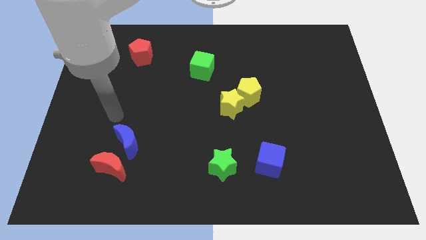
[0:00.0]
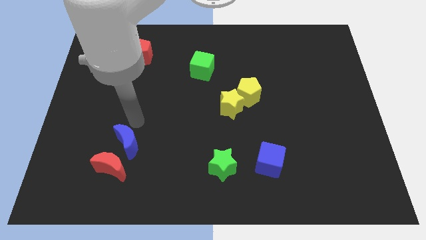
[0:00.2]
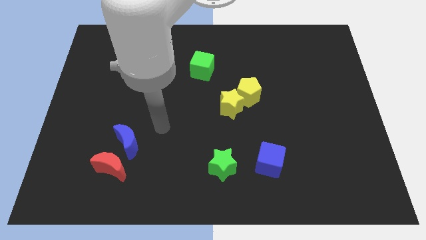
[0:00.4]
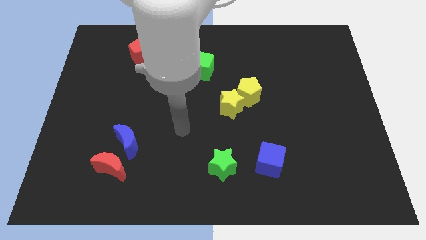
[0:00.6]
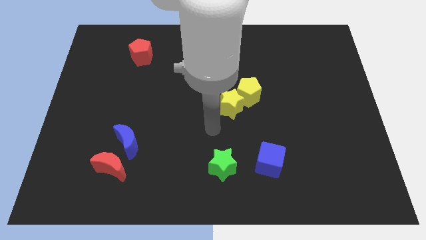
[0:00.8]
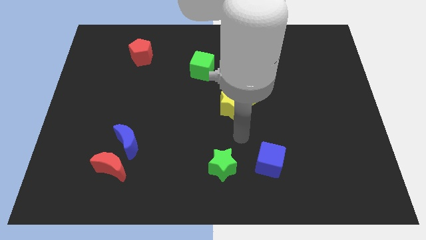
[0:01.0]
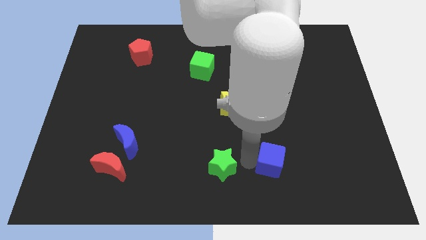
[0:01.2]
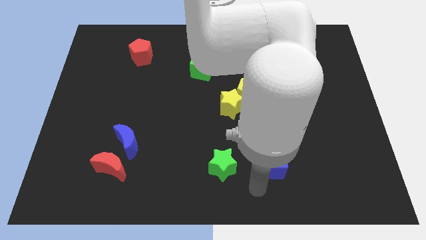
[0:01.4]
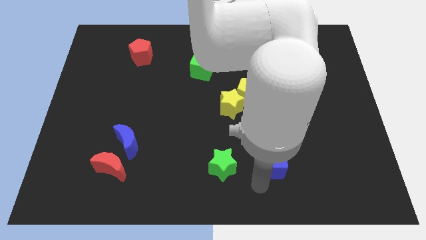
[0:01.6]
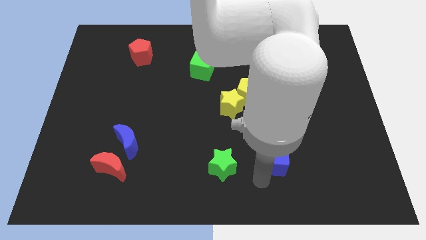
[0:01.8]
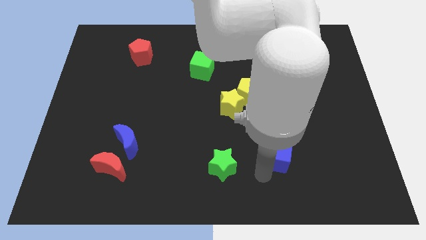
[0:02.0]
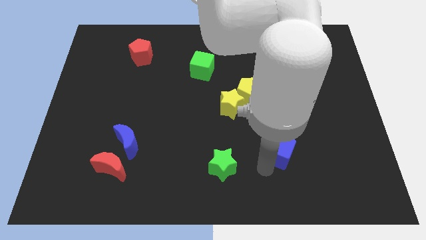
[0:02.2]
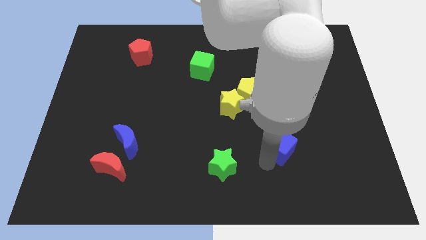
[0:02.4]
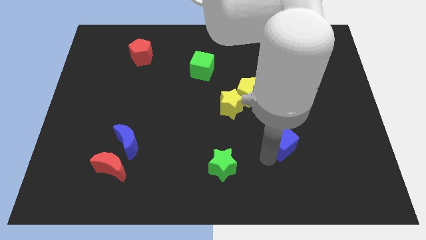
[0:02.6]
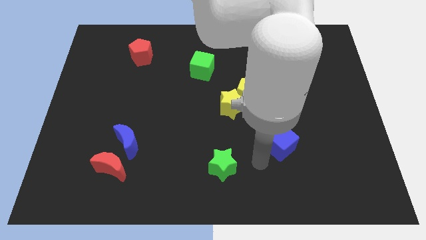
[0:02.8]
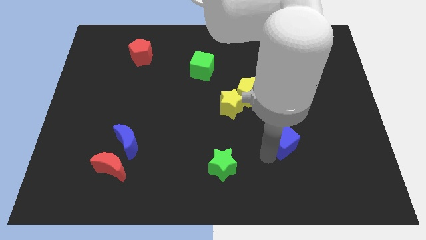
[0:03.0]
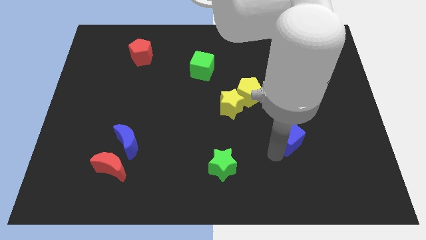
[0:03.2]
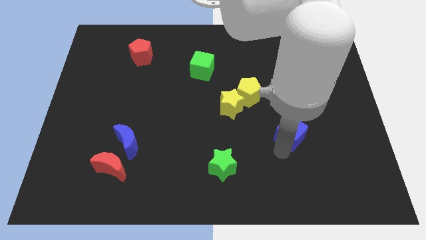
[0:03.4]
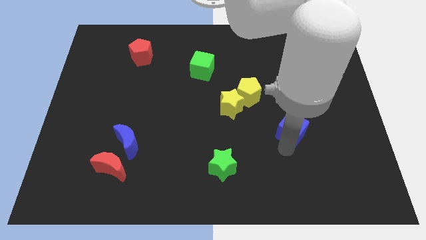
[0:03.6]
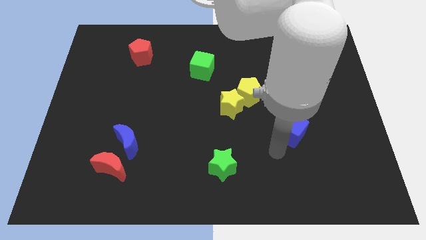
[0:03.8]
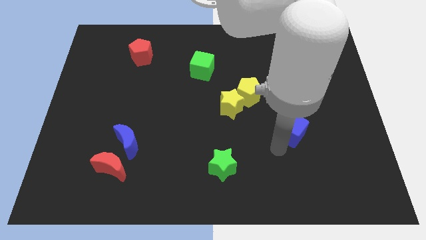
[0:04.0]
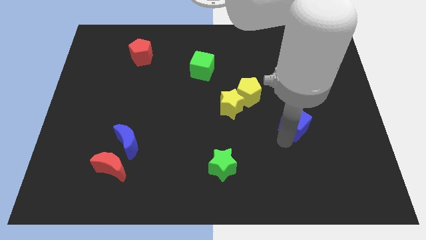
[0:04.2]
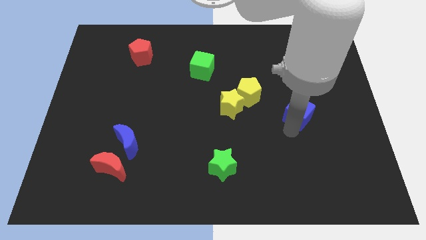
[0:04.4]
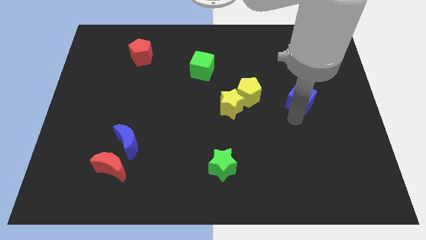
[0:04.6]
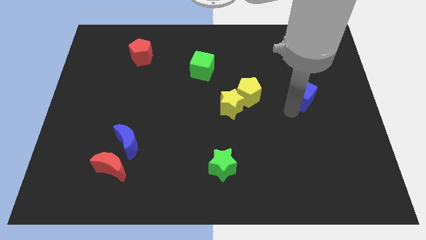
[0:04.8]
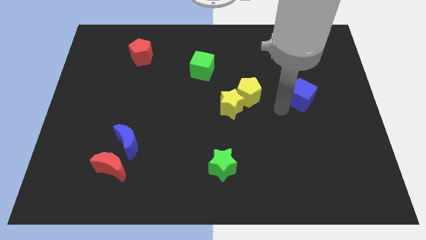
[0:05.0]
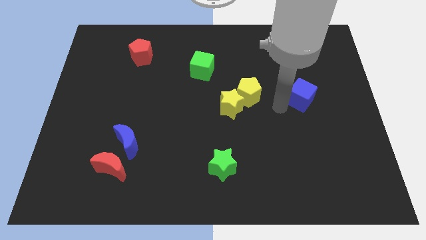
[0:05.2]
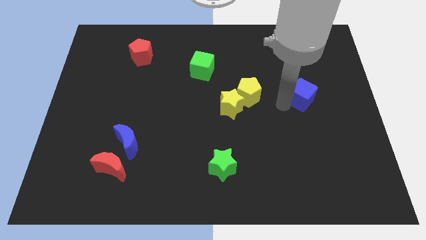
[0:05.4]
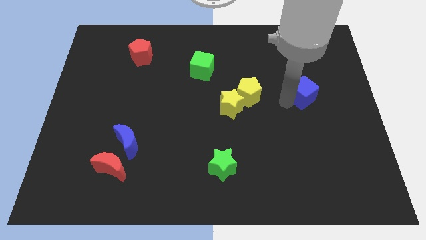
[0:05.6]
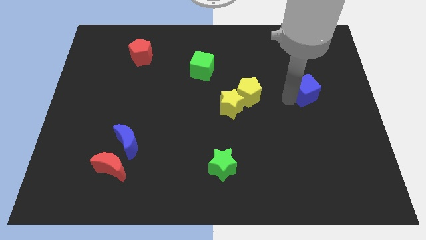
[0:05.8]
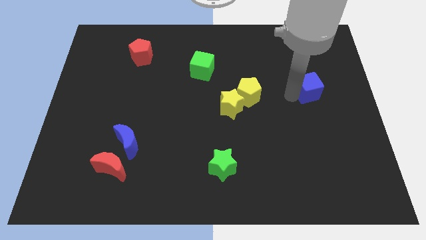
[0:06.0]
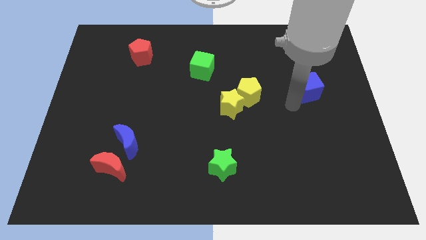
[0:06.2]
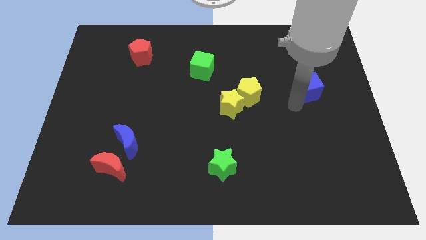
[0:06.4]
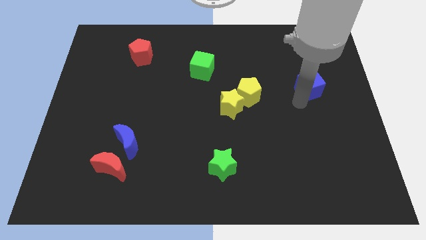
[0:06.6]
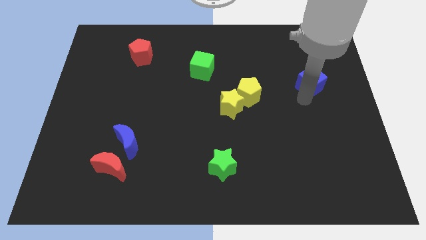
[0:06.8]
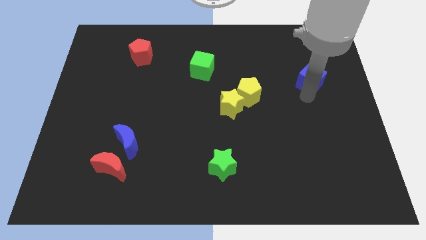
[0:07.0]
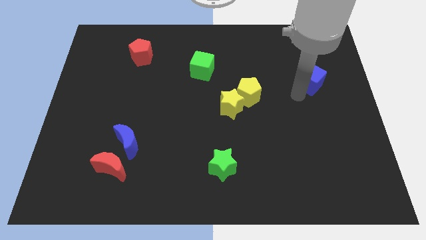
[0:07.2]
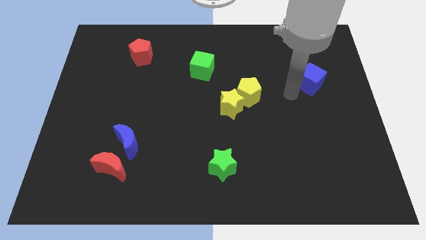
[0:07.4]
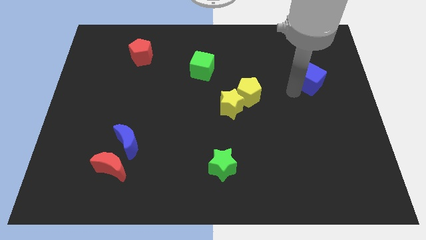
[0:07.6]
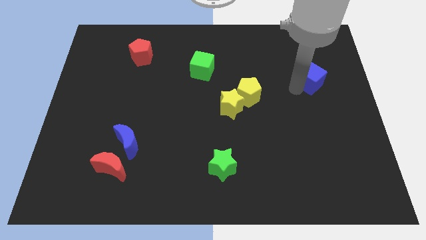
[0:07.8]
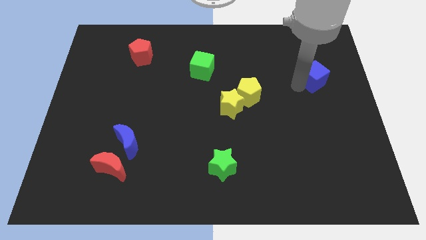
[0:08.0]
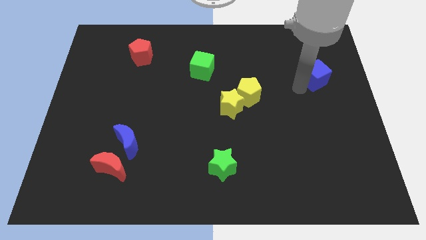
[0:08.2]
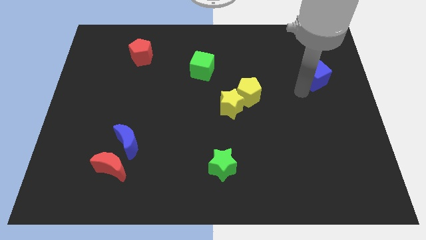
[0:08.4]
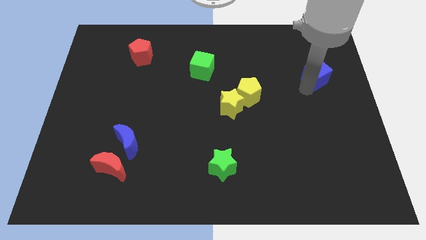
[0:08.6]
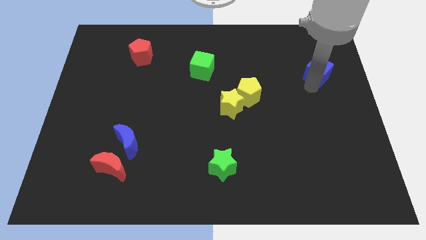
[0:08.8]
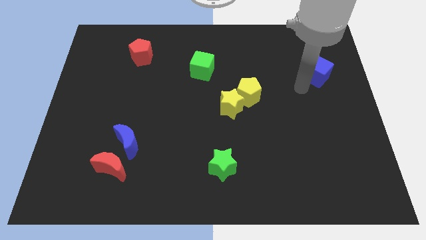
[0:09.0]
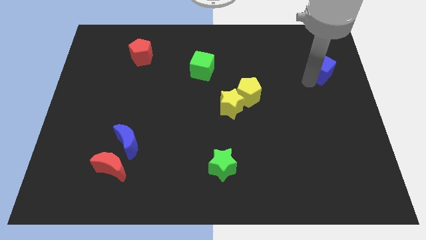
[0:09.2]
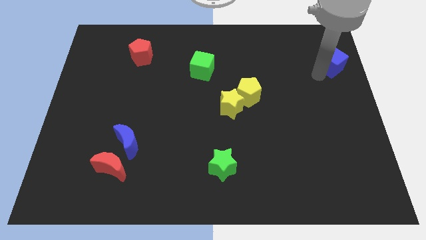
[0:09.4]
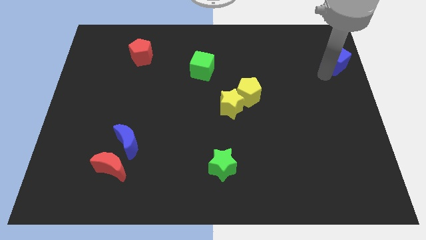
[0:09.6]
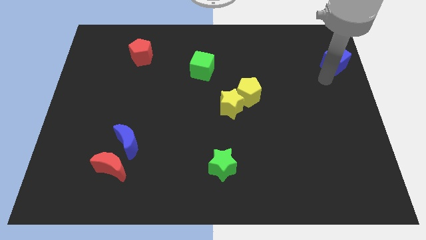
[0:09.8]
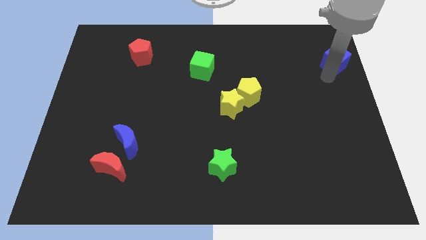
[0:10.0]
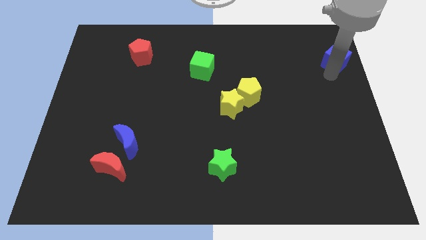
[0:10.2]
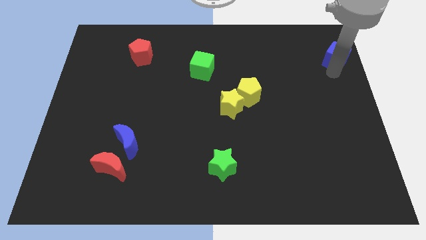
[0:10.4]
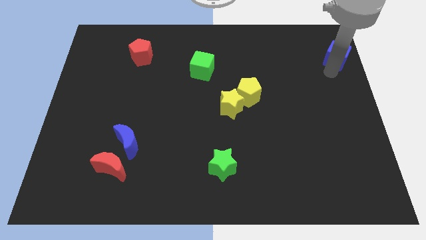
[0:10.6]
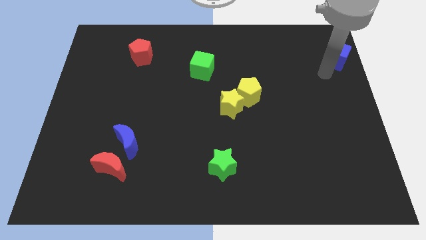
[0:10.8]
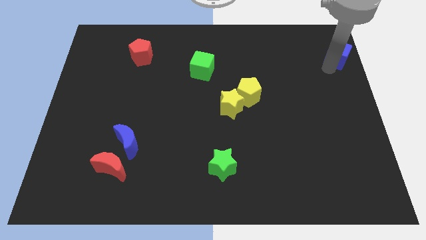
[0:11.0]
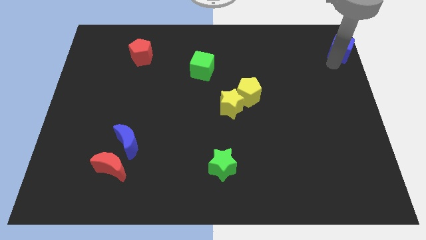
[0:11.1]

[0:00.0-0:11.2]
push the blue cube to the top right of the board

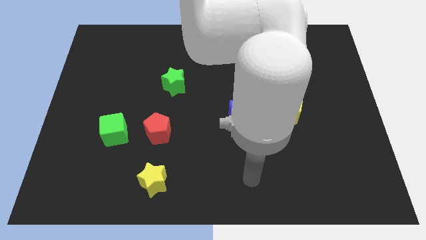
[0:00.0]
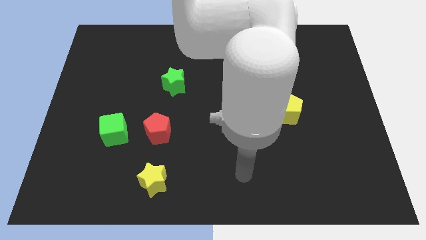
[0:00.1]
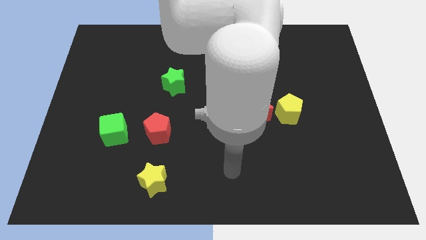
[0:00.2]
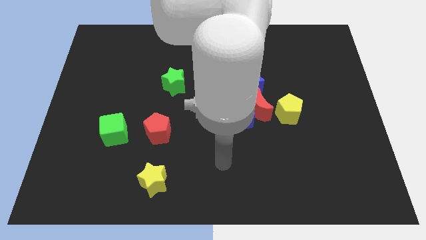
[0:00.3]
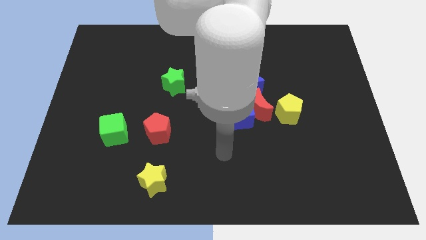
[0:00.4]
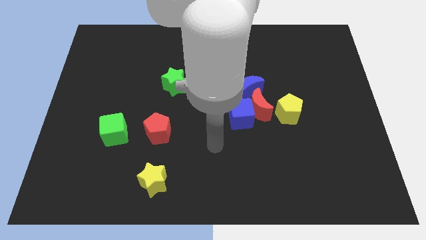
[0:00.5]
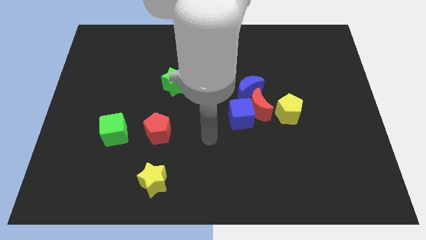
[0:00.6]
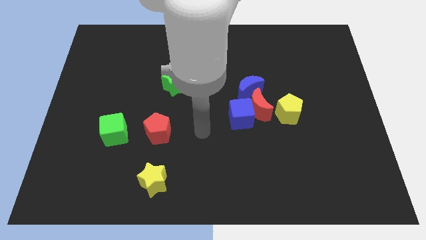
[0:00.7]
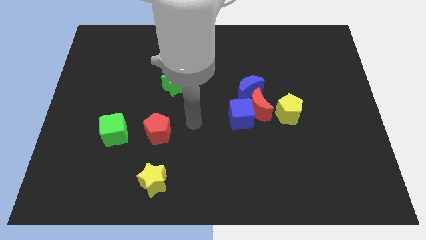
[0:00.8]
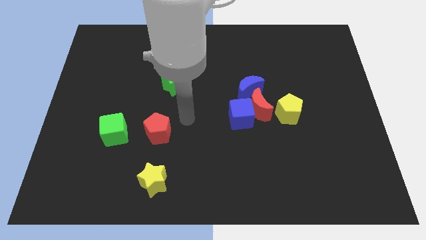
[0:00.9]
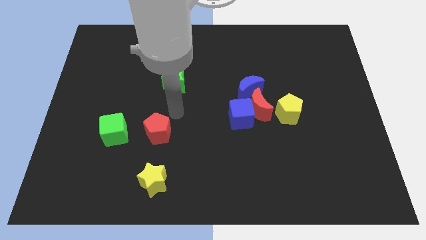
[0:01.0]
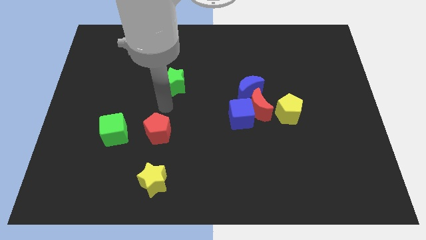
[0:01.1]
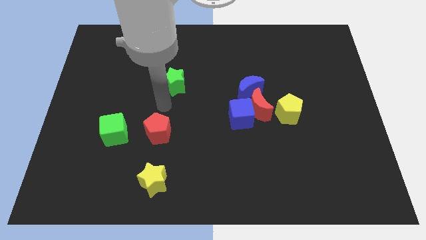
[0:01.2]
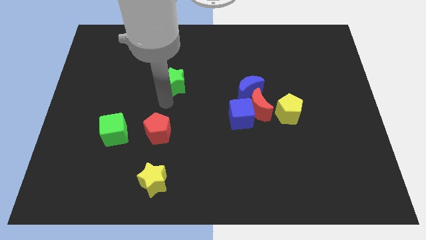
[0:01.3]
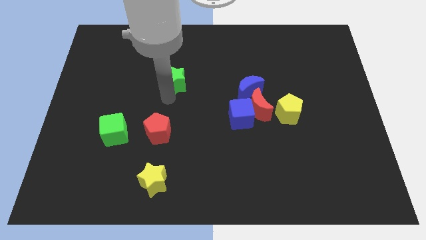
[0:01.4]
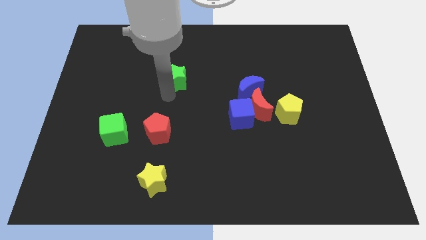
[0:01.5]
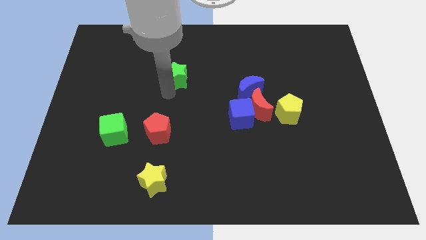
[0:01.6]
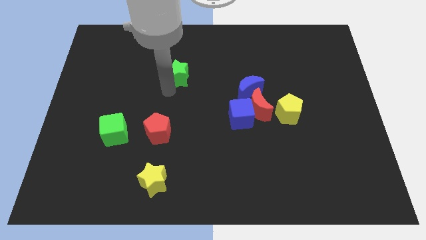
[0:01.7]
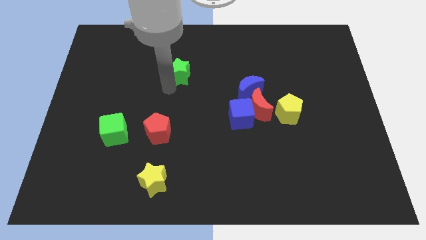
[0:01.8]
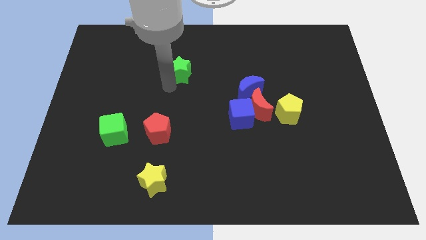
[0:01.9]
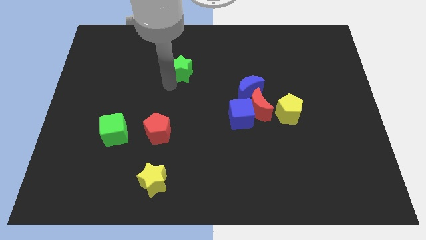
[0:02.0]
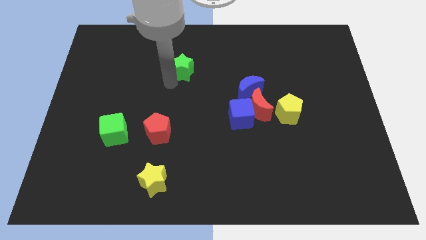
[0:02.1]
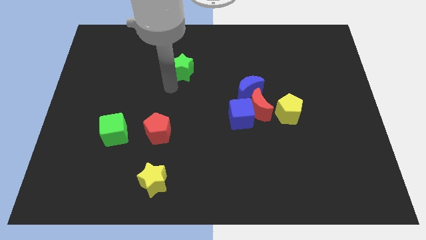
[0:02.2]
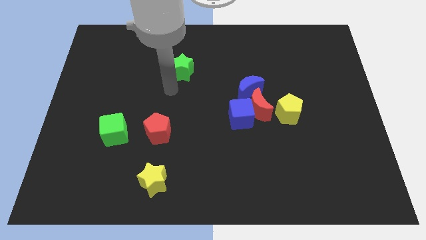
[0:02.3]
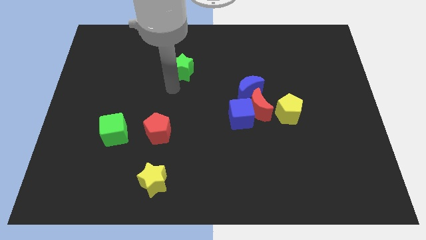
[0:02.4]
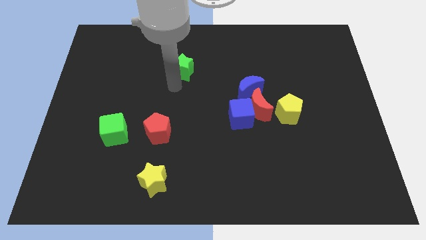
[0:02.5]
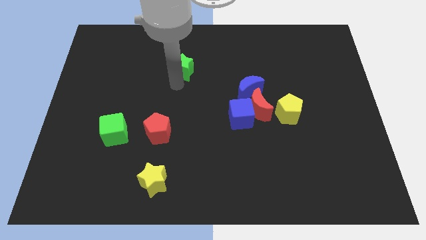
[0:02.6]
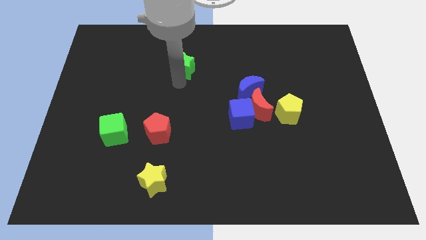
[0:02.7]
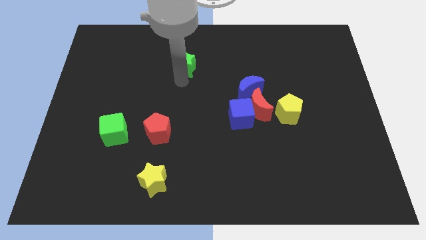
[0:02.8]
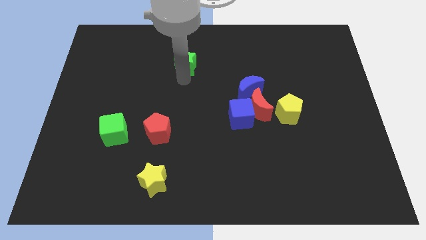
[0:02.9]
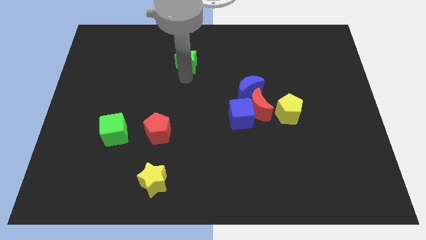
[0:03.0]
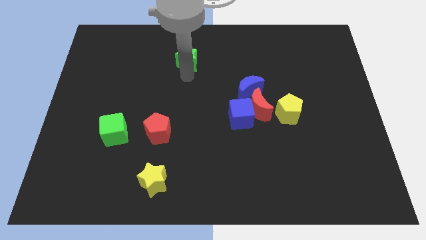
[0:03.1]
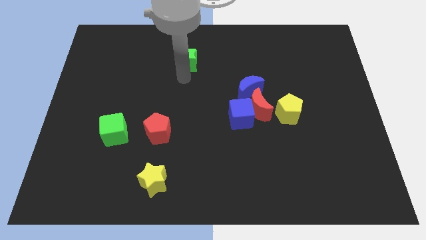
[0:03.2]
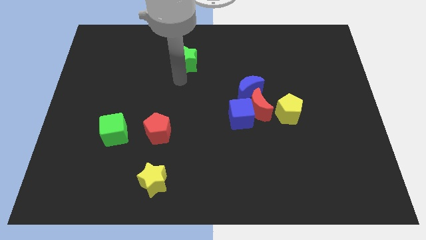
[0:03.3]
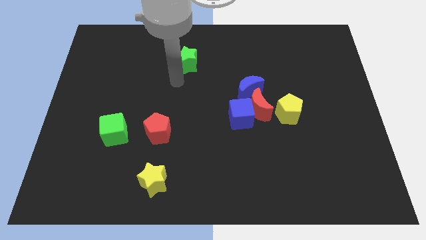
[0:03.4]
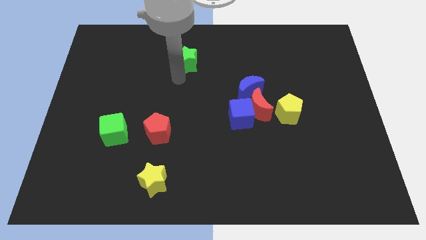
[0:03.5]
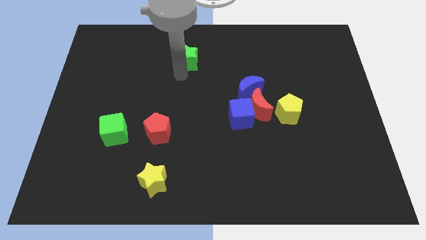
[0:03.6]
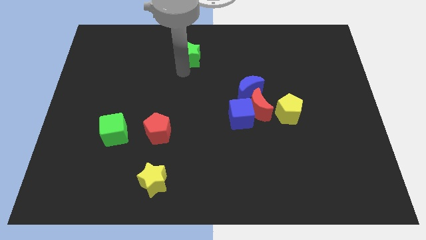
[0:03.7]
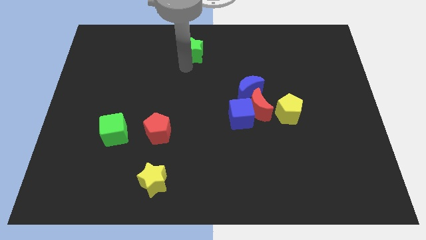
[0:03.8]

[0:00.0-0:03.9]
move the green star to the towards your base
